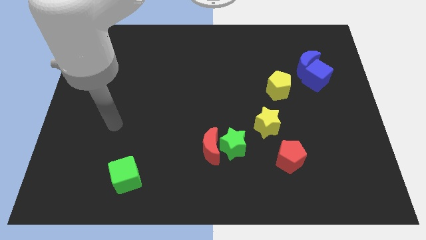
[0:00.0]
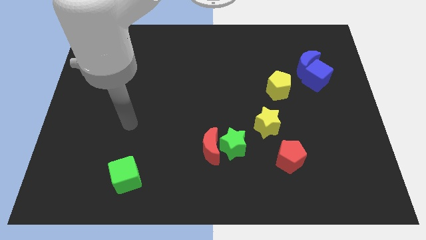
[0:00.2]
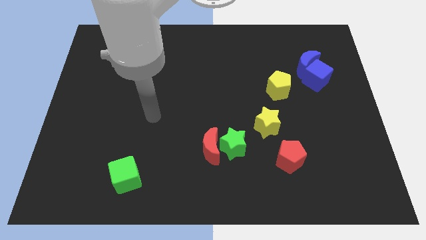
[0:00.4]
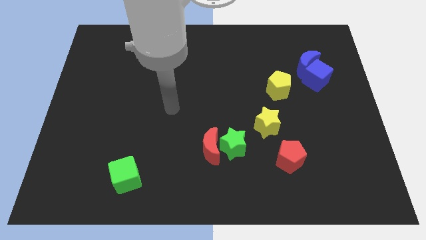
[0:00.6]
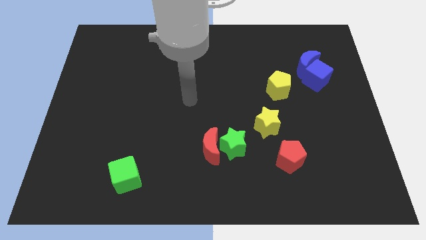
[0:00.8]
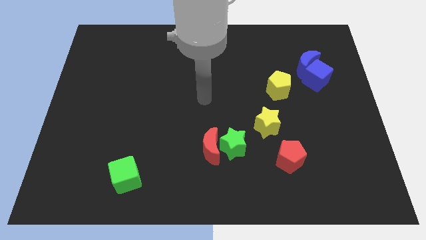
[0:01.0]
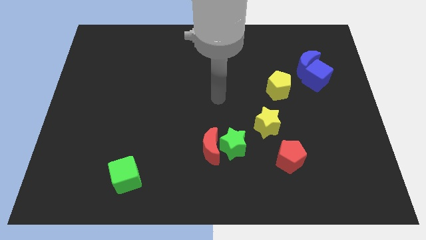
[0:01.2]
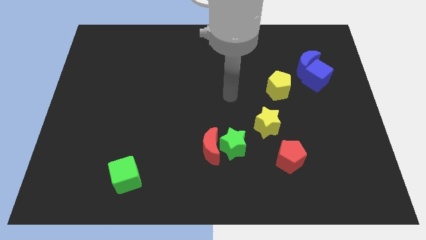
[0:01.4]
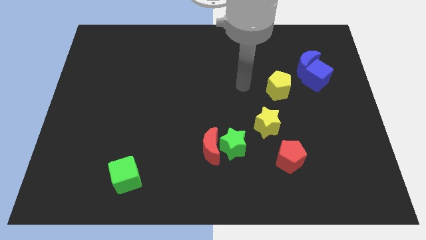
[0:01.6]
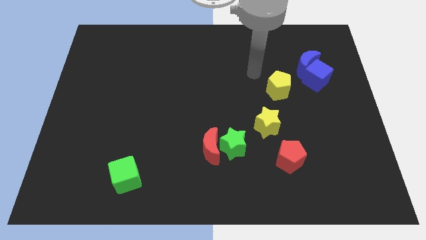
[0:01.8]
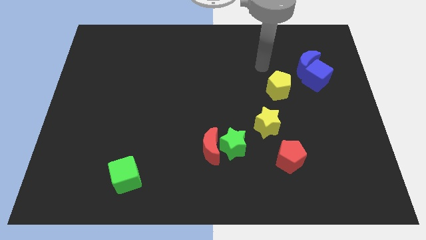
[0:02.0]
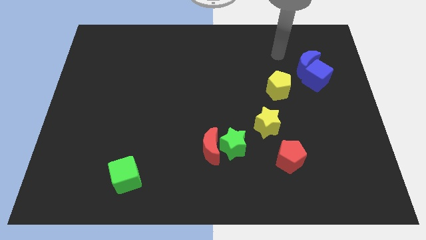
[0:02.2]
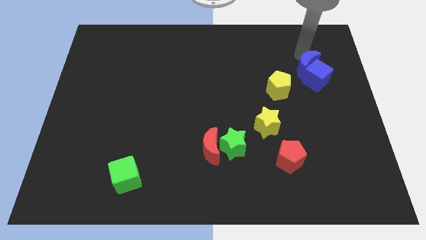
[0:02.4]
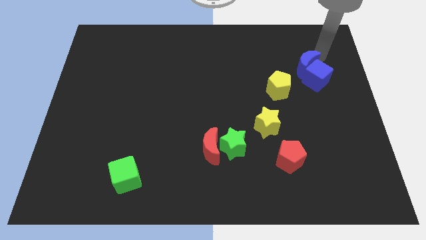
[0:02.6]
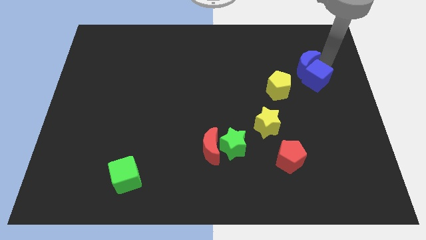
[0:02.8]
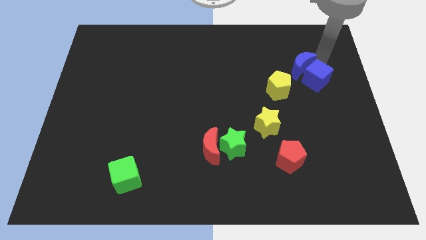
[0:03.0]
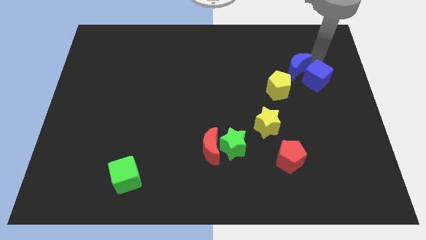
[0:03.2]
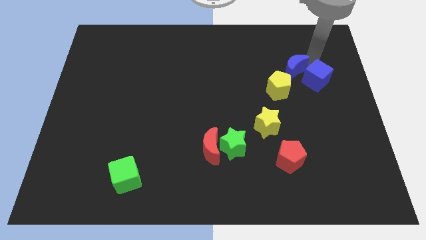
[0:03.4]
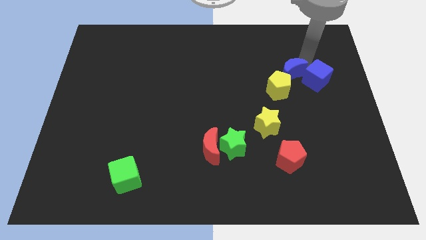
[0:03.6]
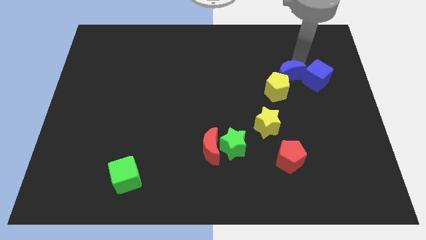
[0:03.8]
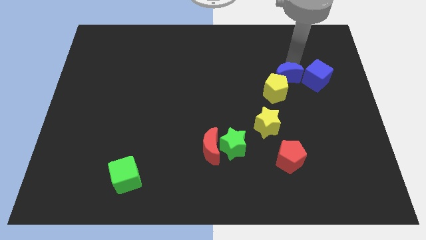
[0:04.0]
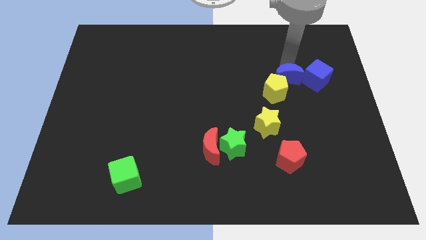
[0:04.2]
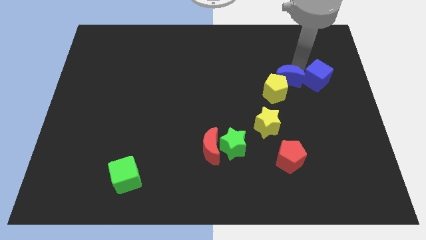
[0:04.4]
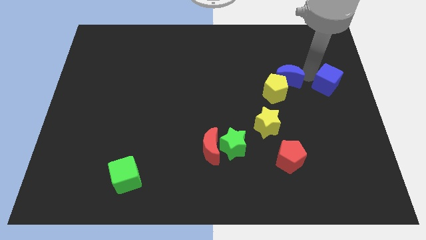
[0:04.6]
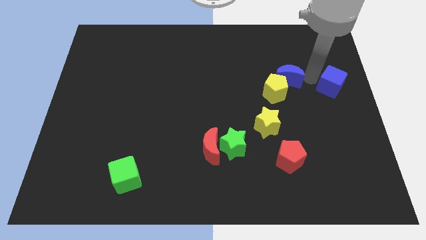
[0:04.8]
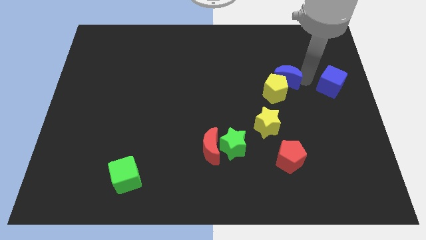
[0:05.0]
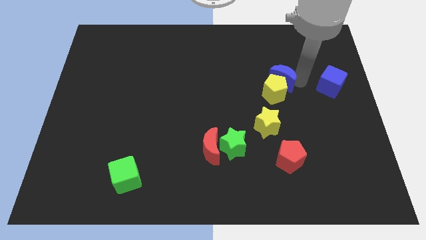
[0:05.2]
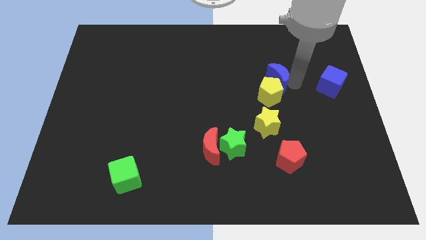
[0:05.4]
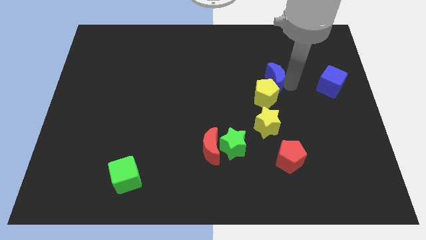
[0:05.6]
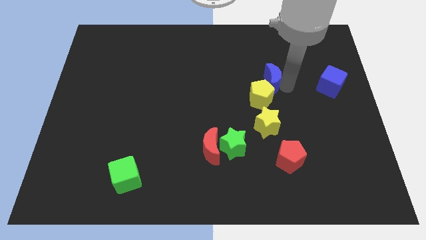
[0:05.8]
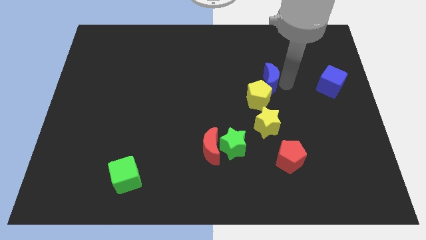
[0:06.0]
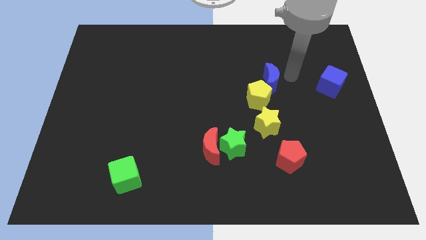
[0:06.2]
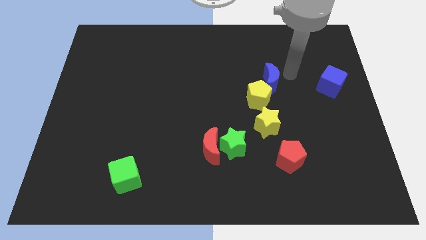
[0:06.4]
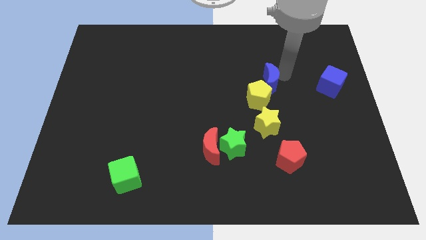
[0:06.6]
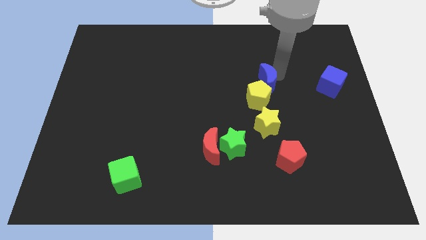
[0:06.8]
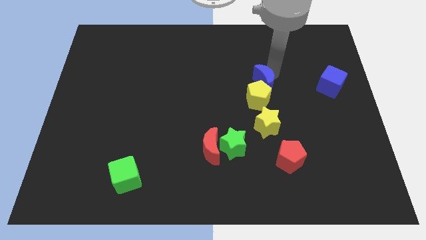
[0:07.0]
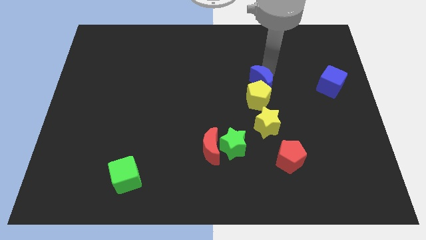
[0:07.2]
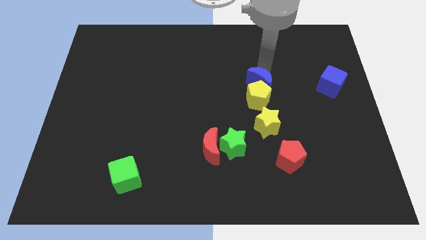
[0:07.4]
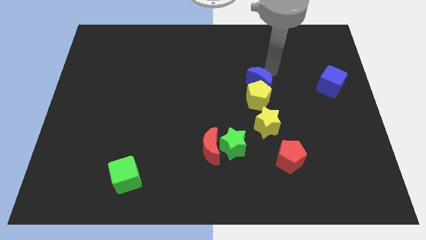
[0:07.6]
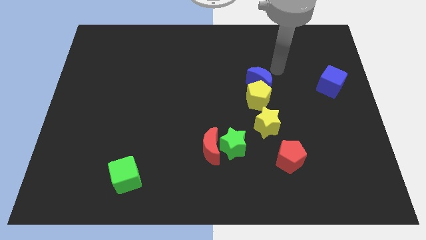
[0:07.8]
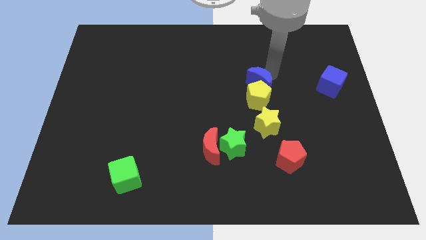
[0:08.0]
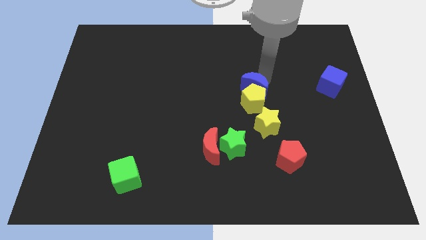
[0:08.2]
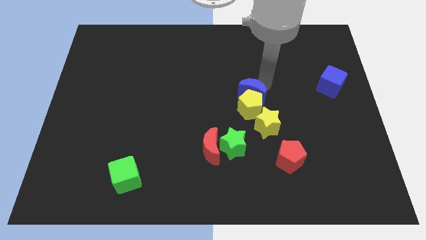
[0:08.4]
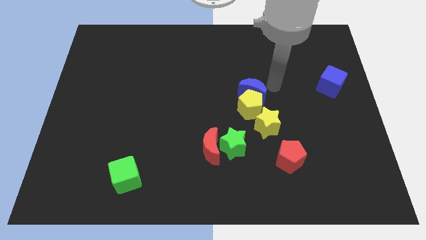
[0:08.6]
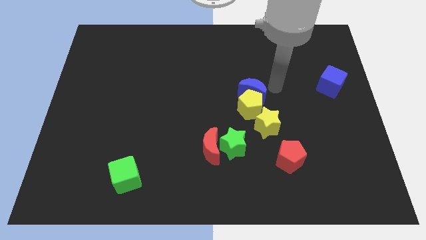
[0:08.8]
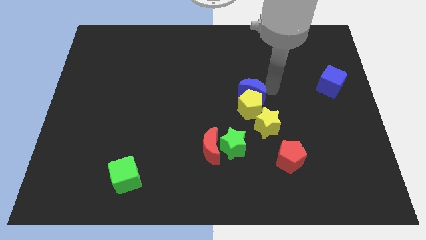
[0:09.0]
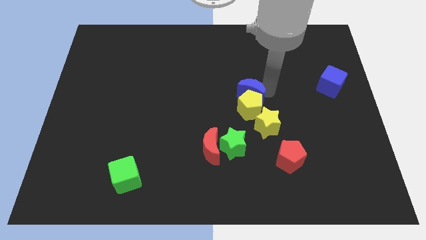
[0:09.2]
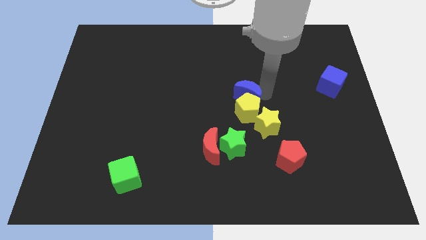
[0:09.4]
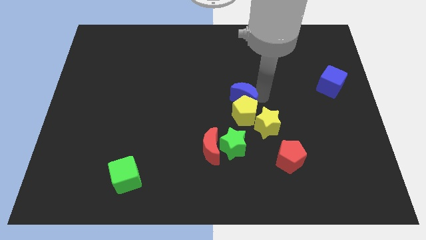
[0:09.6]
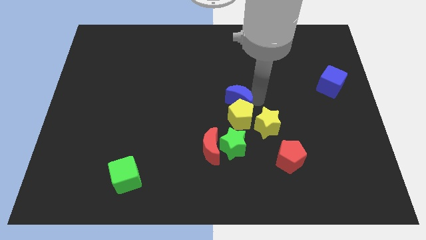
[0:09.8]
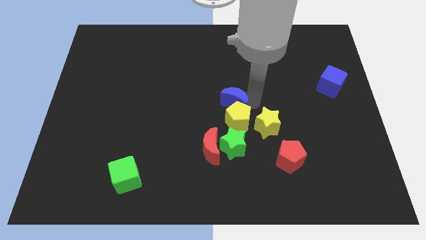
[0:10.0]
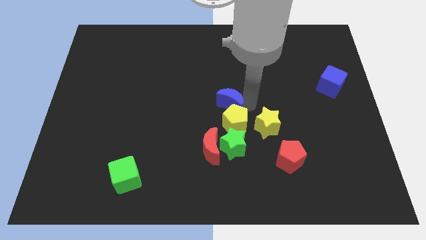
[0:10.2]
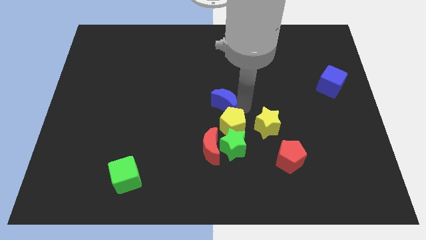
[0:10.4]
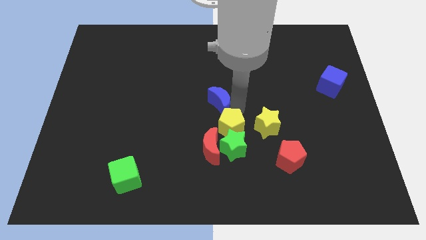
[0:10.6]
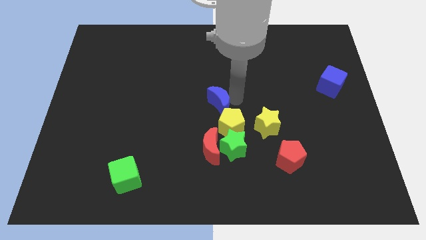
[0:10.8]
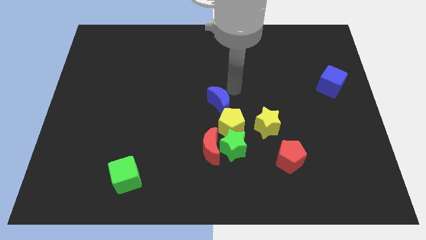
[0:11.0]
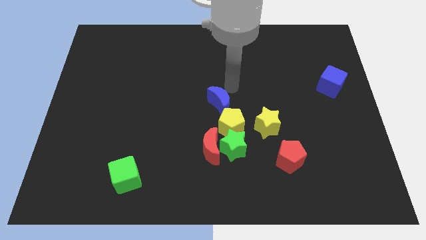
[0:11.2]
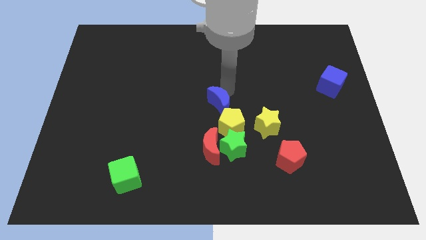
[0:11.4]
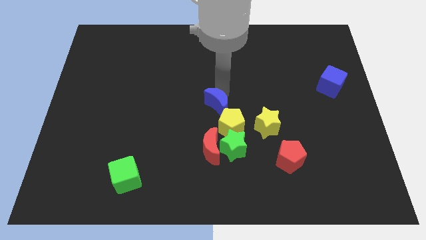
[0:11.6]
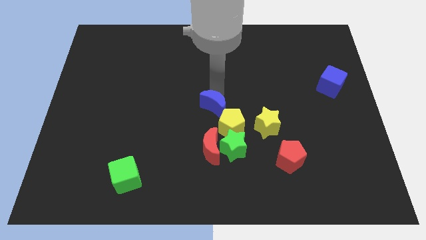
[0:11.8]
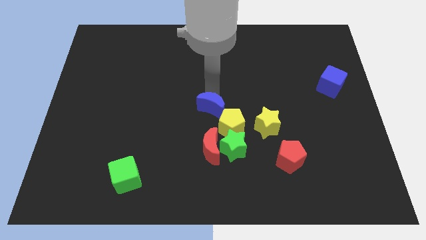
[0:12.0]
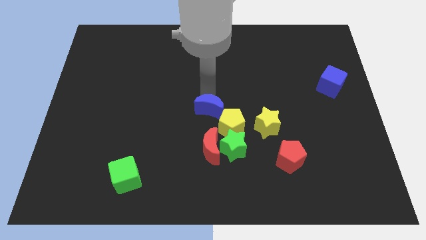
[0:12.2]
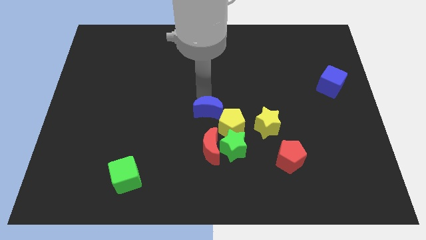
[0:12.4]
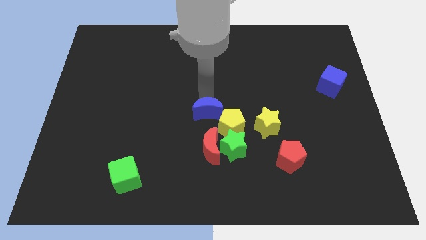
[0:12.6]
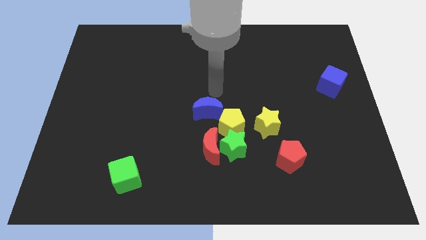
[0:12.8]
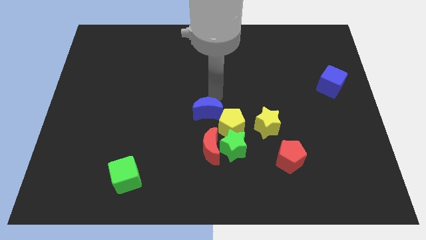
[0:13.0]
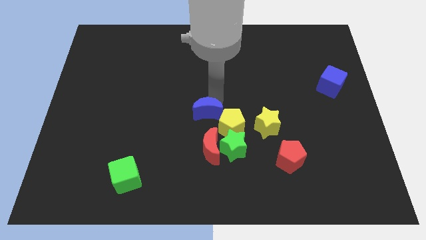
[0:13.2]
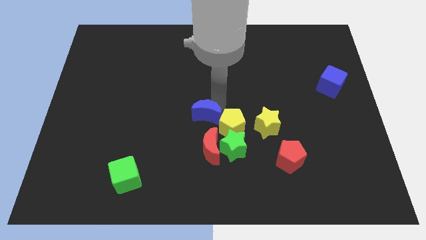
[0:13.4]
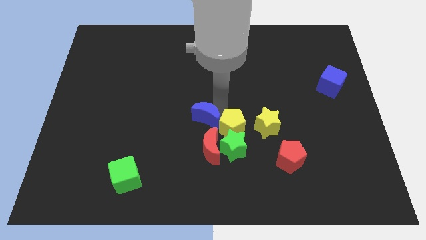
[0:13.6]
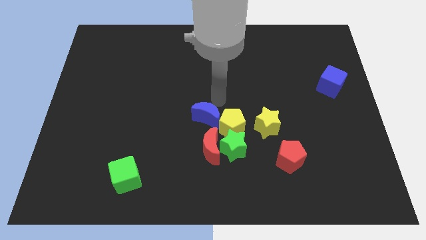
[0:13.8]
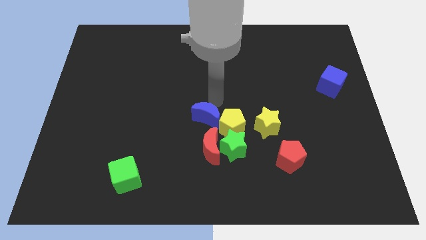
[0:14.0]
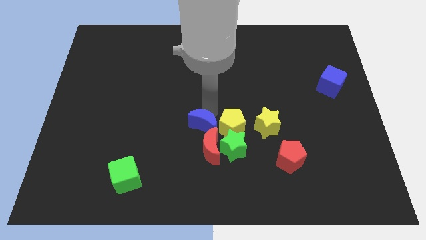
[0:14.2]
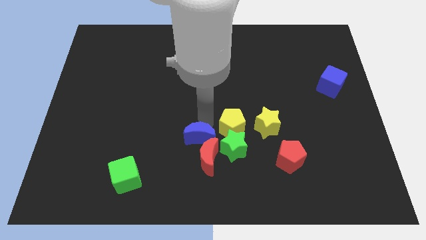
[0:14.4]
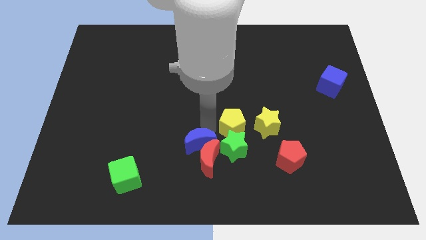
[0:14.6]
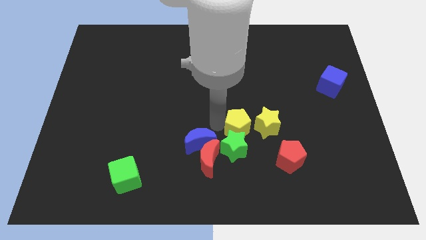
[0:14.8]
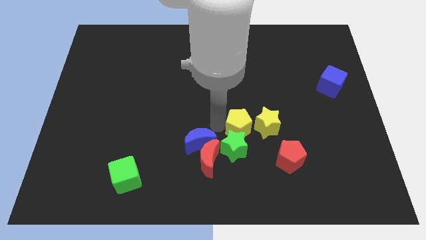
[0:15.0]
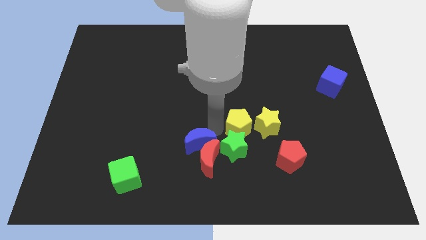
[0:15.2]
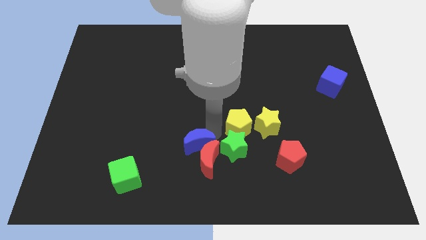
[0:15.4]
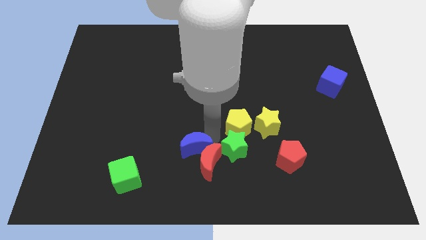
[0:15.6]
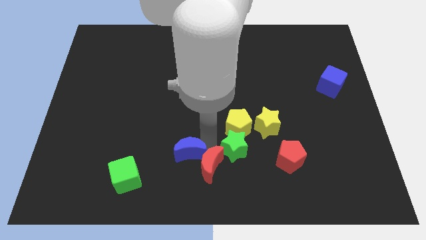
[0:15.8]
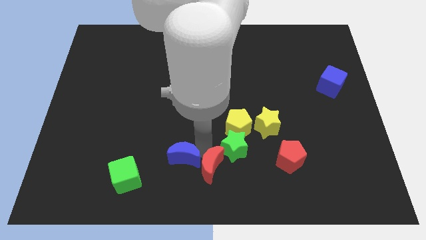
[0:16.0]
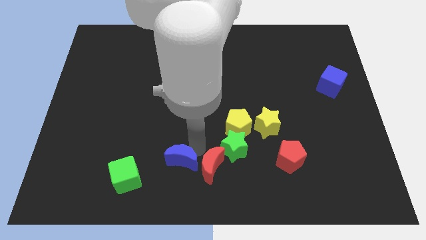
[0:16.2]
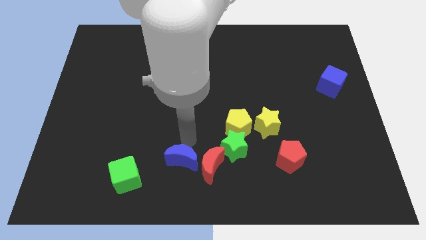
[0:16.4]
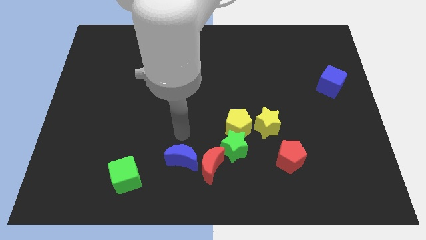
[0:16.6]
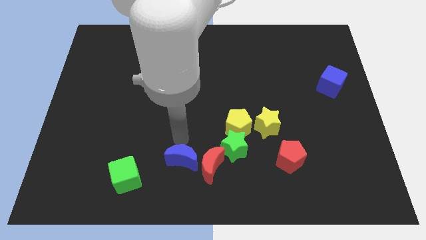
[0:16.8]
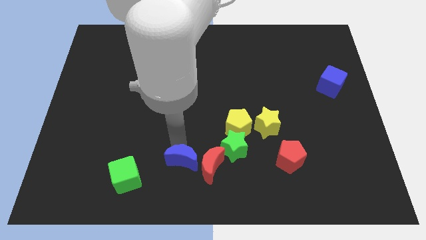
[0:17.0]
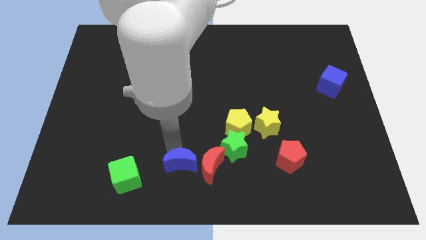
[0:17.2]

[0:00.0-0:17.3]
put the blue moon diagonally down and to the left of the red moon
